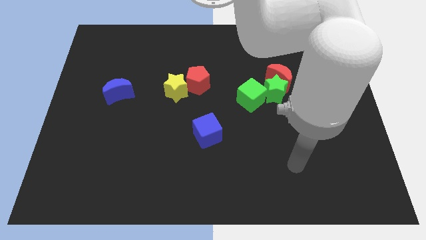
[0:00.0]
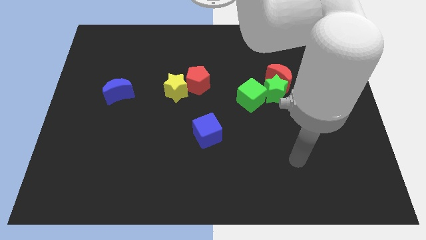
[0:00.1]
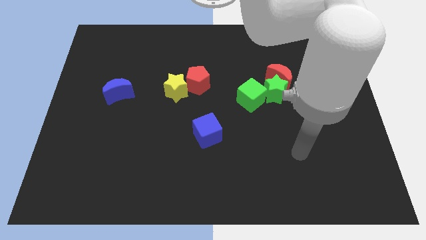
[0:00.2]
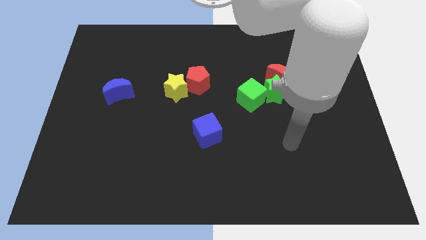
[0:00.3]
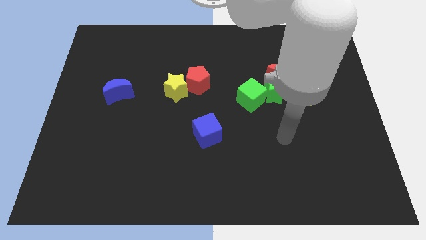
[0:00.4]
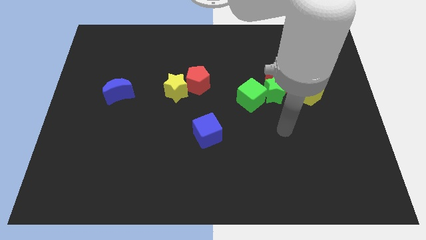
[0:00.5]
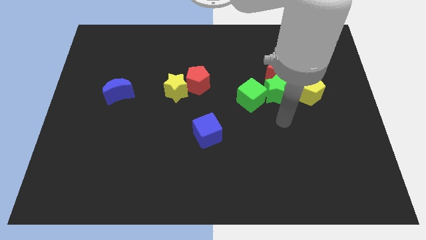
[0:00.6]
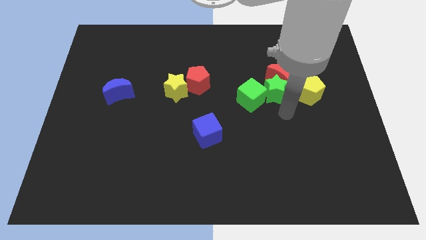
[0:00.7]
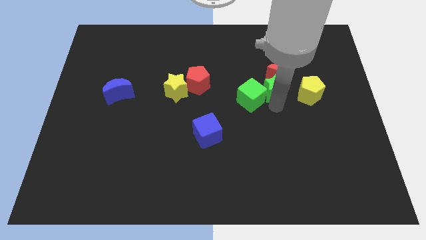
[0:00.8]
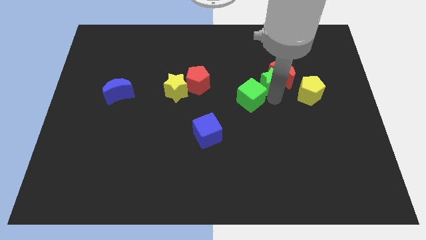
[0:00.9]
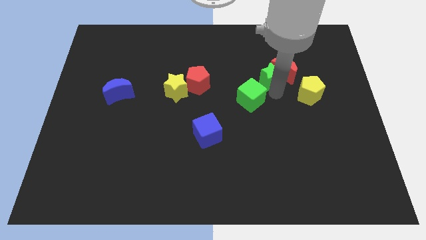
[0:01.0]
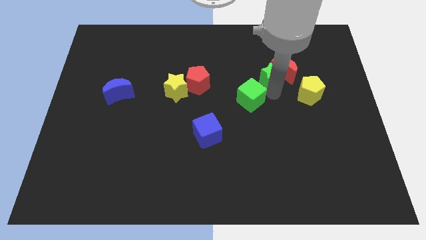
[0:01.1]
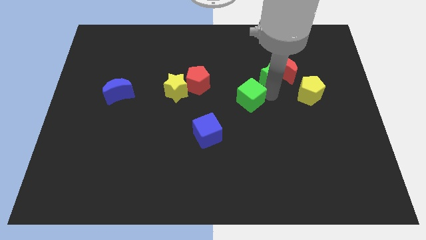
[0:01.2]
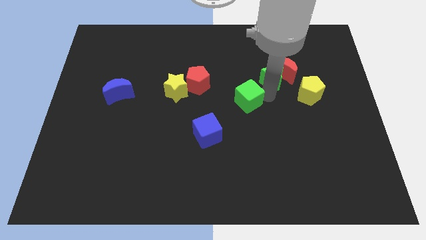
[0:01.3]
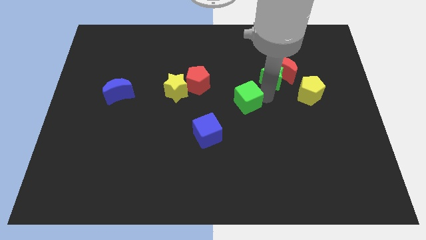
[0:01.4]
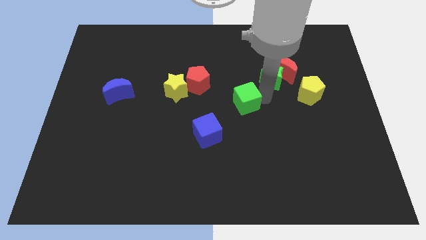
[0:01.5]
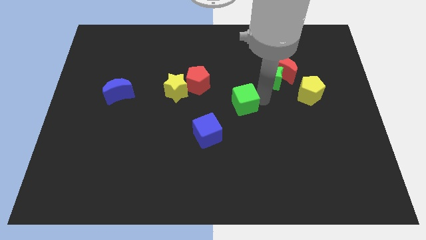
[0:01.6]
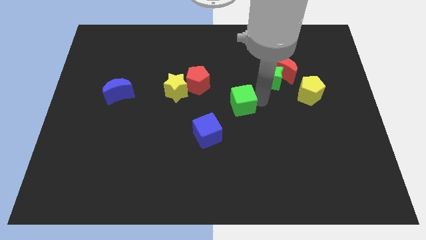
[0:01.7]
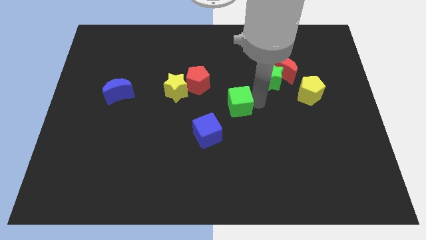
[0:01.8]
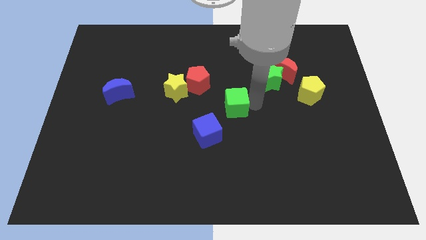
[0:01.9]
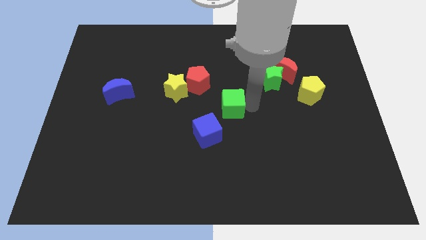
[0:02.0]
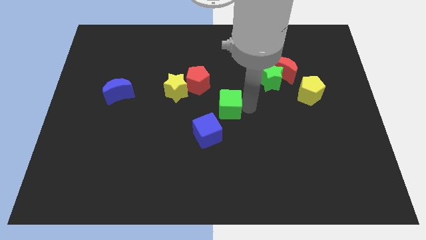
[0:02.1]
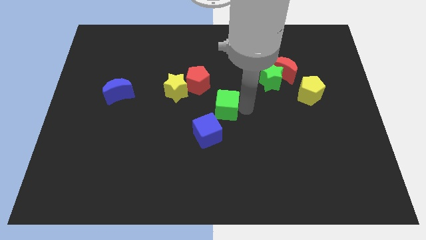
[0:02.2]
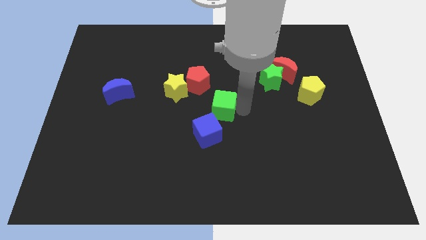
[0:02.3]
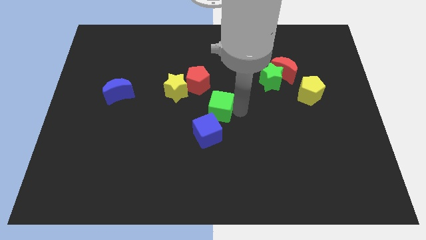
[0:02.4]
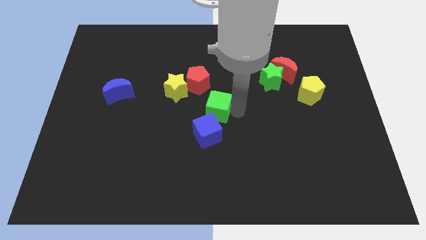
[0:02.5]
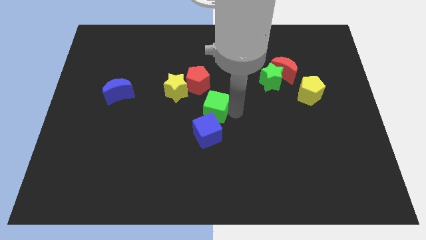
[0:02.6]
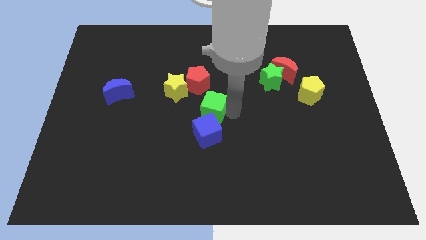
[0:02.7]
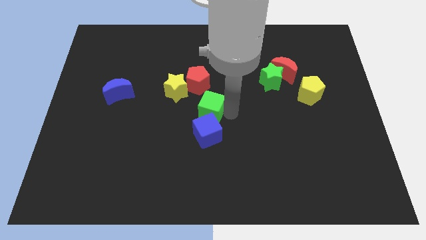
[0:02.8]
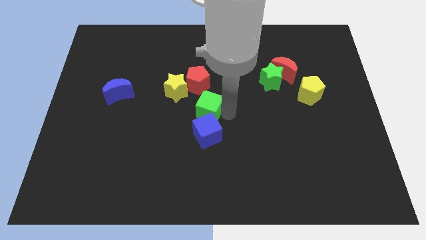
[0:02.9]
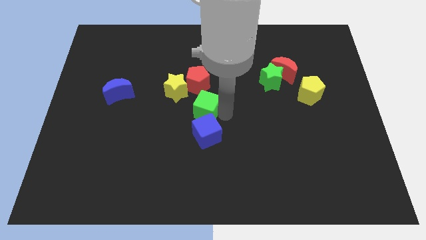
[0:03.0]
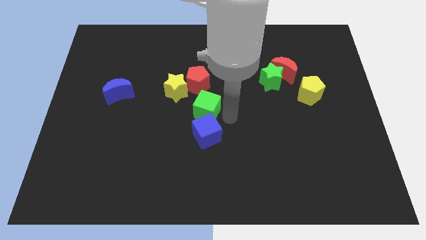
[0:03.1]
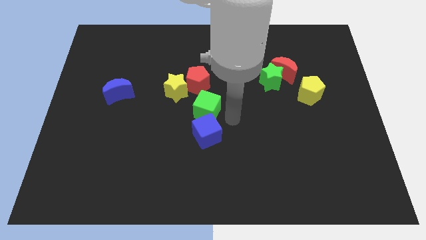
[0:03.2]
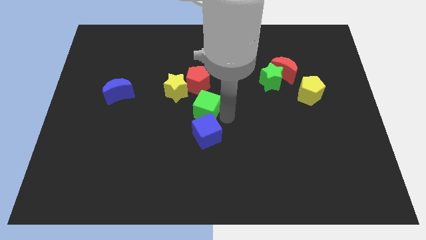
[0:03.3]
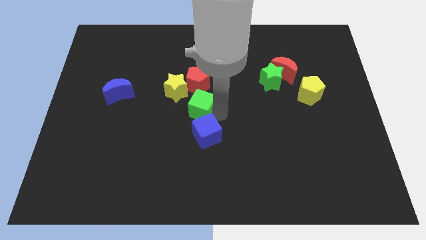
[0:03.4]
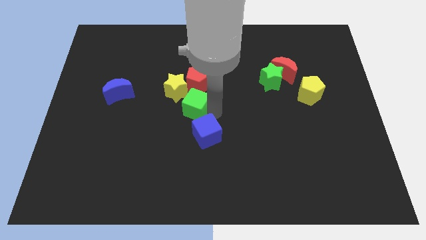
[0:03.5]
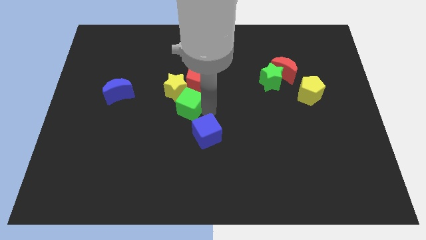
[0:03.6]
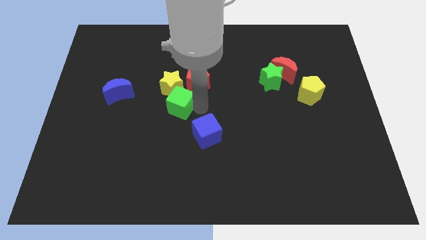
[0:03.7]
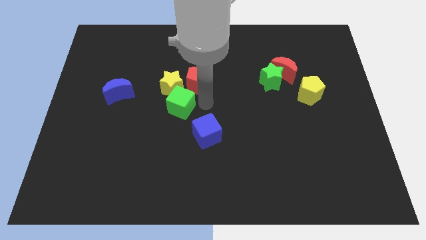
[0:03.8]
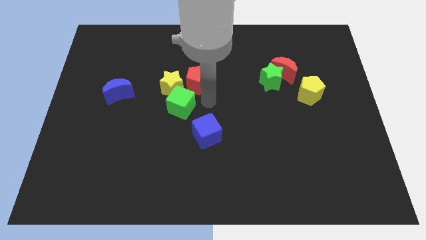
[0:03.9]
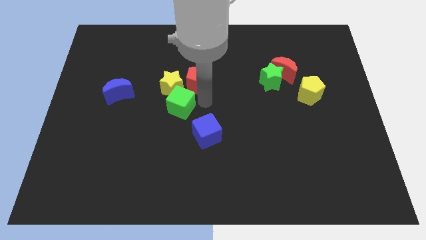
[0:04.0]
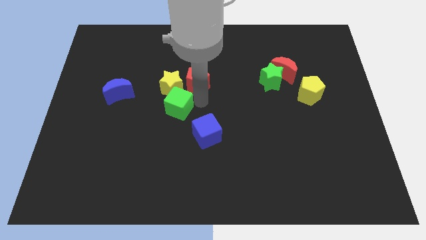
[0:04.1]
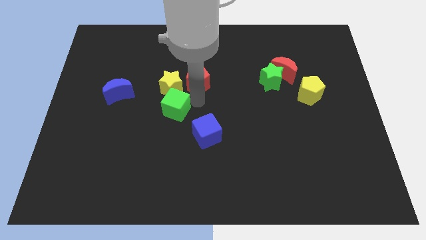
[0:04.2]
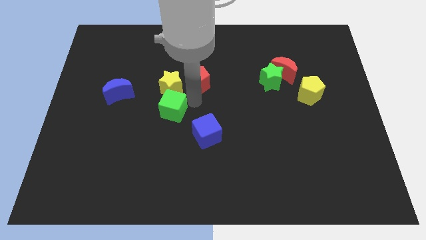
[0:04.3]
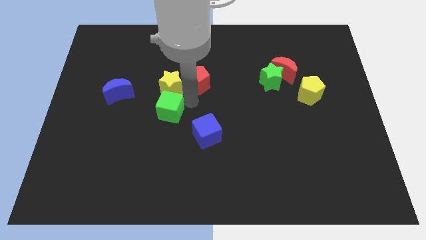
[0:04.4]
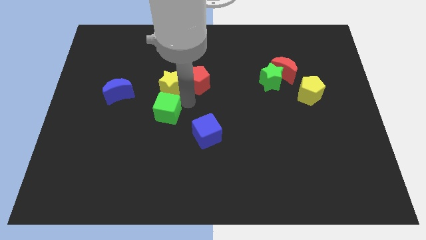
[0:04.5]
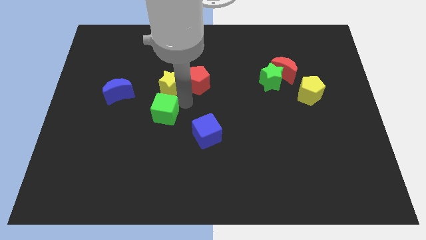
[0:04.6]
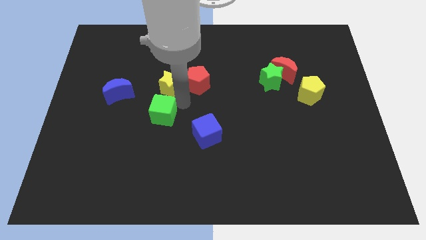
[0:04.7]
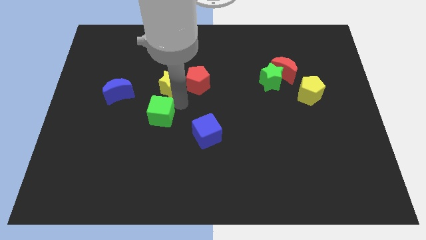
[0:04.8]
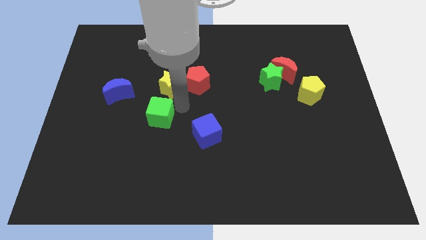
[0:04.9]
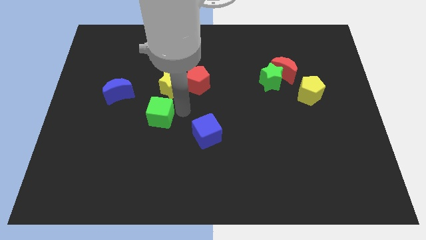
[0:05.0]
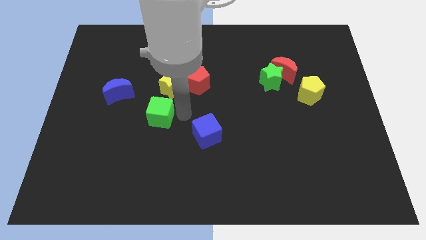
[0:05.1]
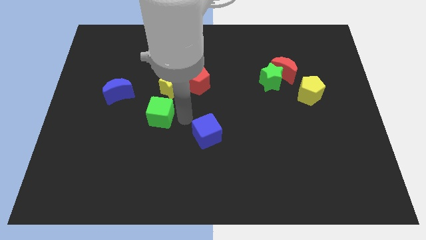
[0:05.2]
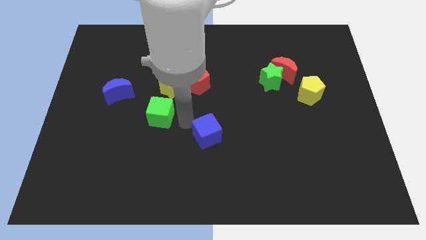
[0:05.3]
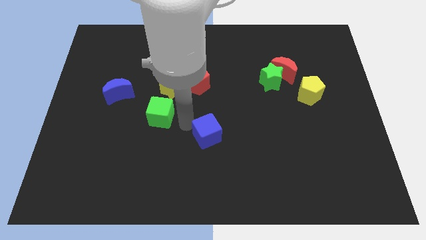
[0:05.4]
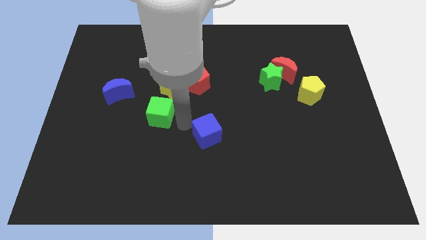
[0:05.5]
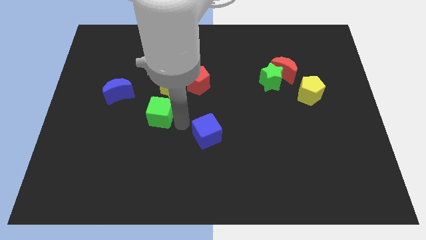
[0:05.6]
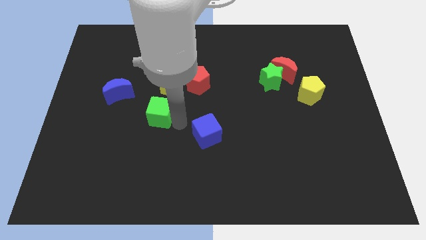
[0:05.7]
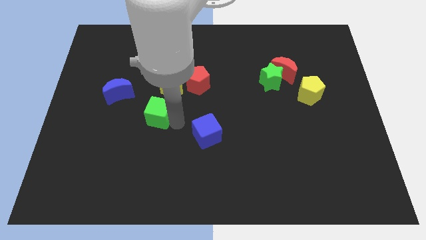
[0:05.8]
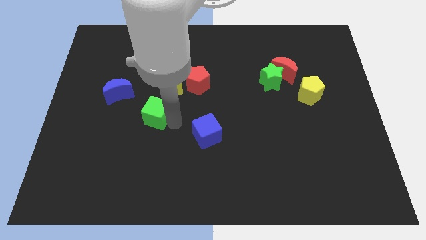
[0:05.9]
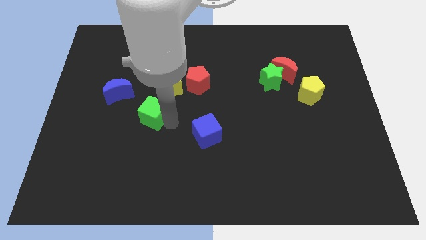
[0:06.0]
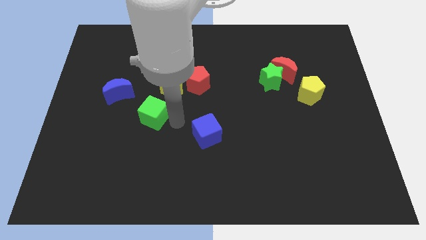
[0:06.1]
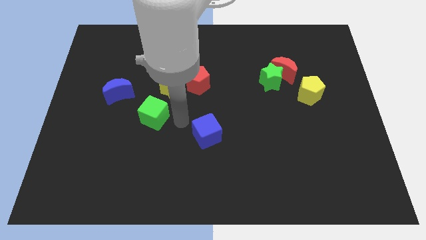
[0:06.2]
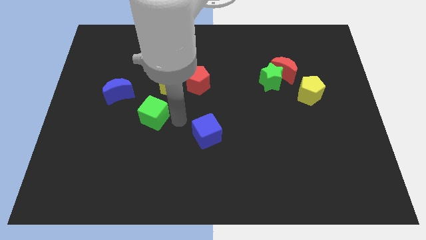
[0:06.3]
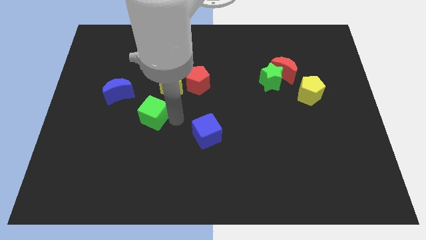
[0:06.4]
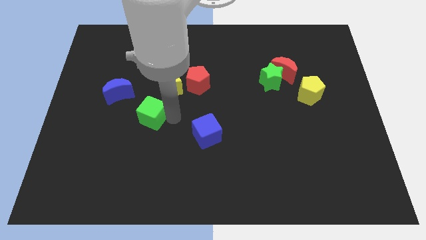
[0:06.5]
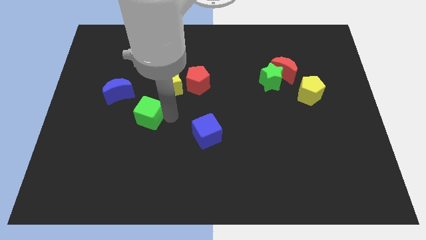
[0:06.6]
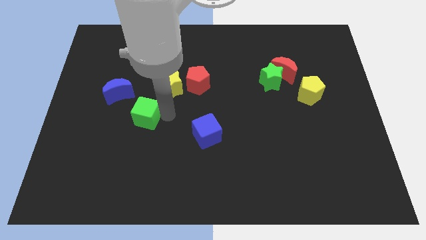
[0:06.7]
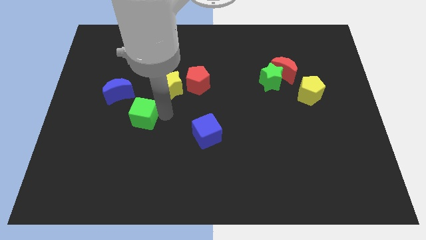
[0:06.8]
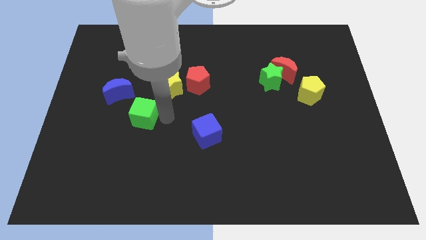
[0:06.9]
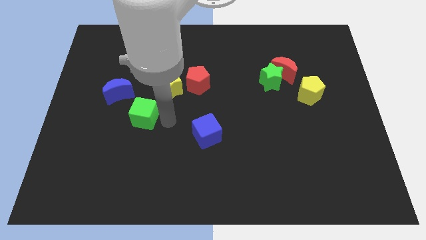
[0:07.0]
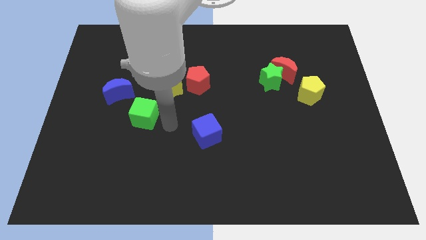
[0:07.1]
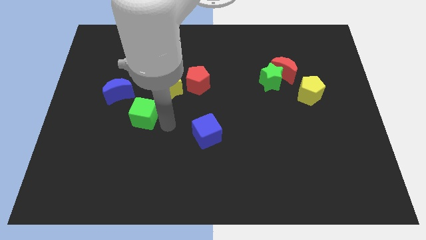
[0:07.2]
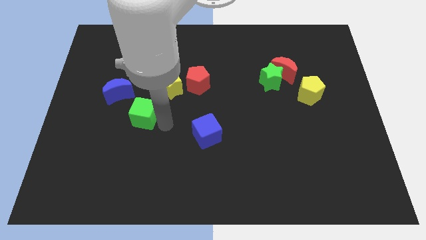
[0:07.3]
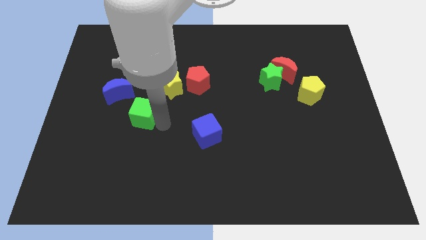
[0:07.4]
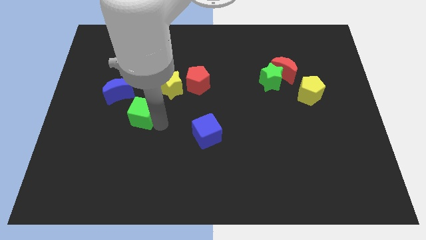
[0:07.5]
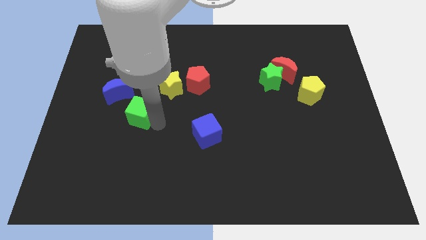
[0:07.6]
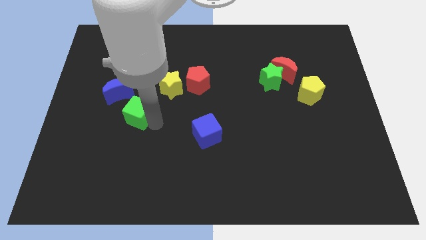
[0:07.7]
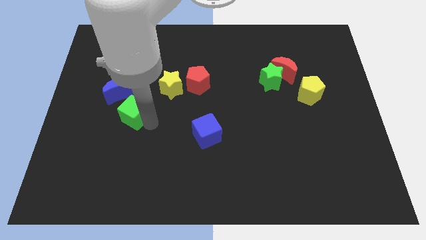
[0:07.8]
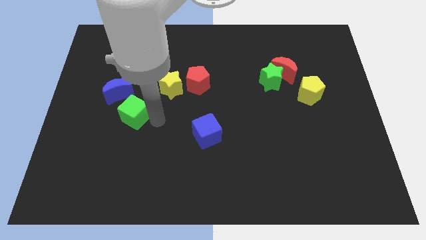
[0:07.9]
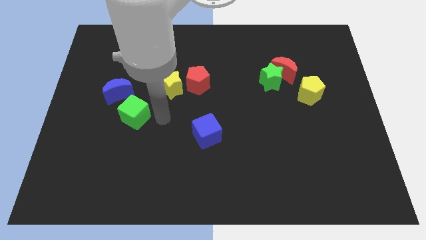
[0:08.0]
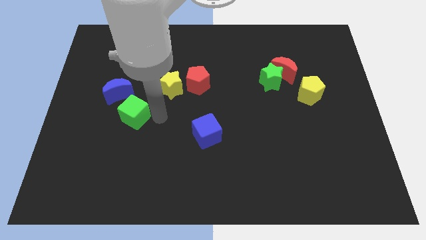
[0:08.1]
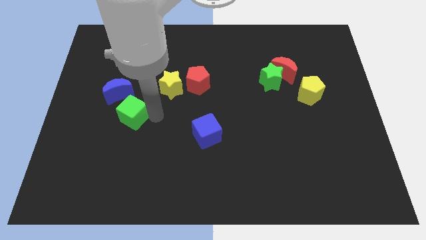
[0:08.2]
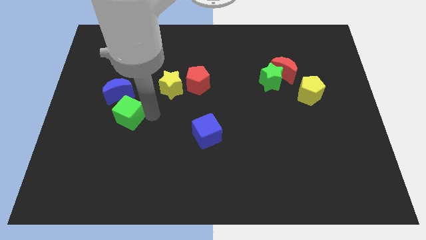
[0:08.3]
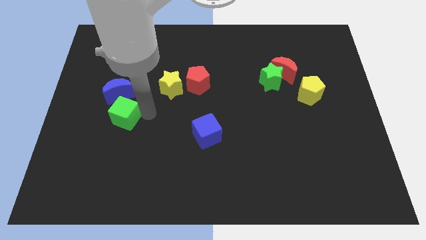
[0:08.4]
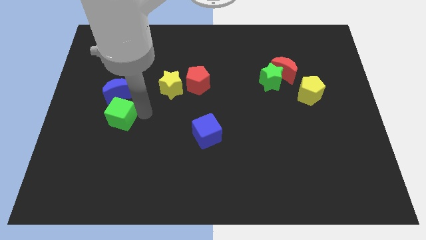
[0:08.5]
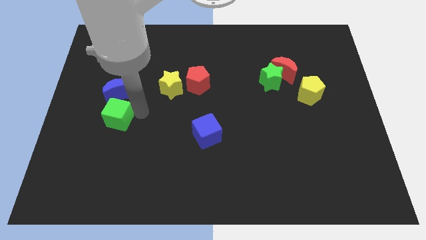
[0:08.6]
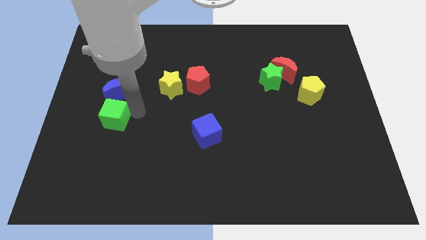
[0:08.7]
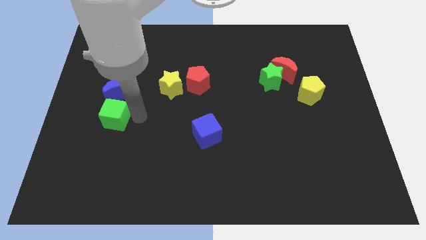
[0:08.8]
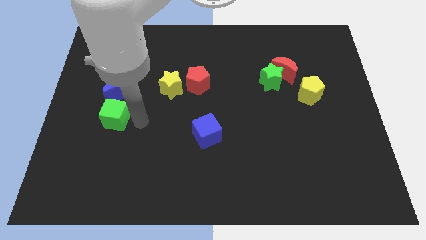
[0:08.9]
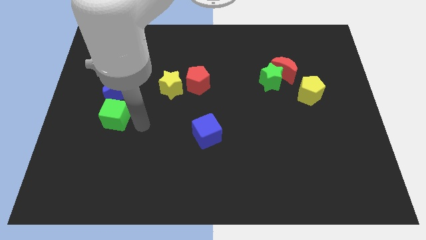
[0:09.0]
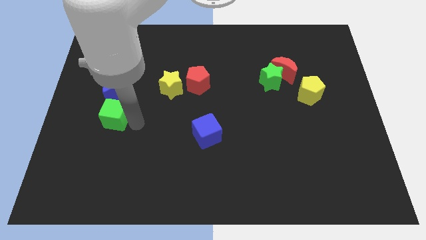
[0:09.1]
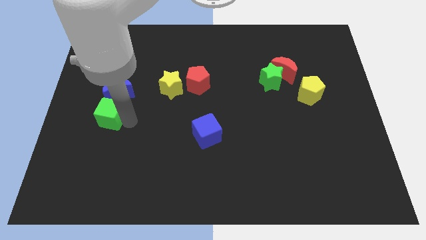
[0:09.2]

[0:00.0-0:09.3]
slide the green cube to the bottom left of the blue moon
